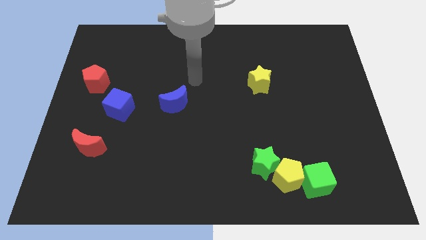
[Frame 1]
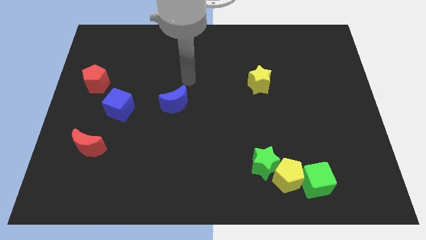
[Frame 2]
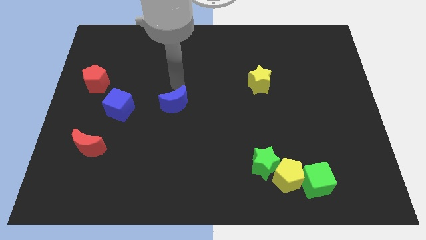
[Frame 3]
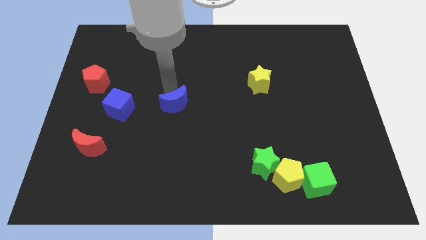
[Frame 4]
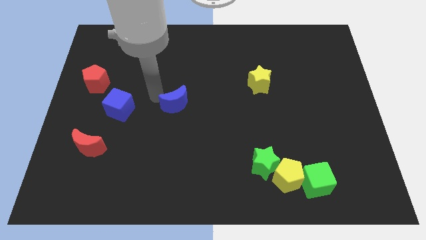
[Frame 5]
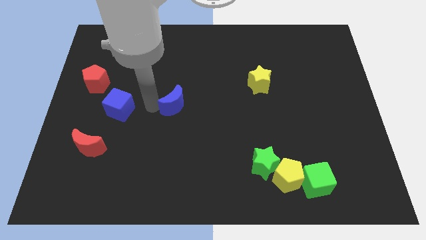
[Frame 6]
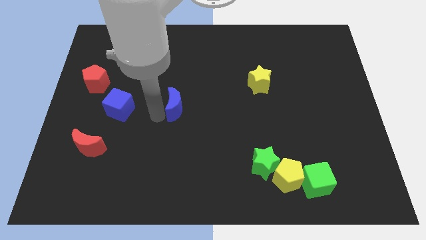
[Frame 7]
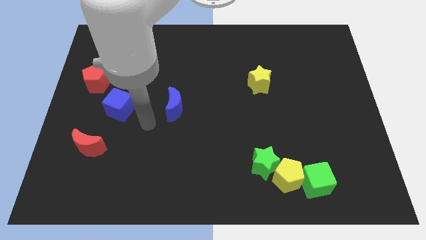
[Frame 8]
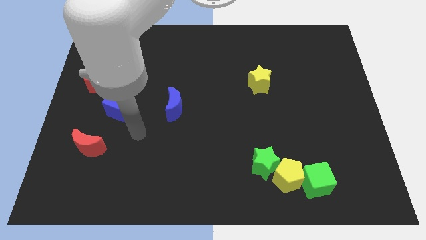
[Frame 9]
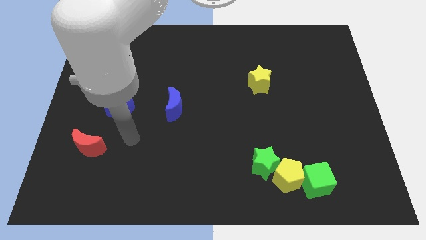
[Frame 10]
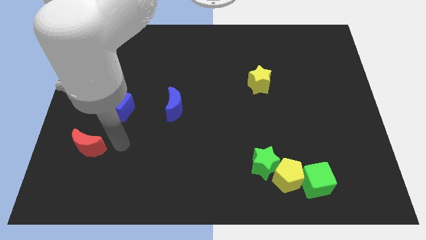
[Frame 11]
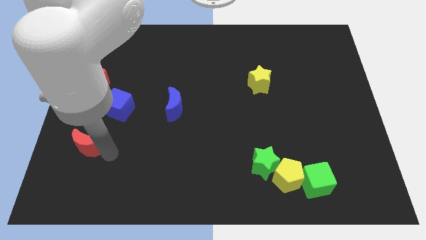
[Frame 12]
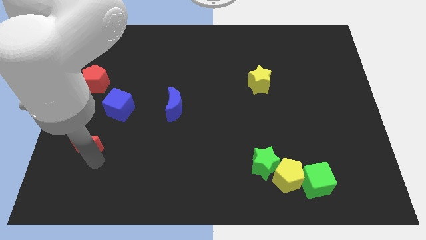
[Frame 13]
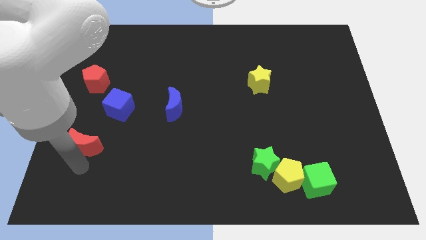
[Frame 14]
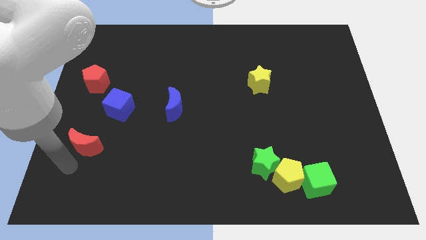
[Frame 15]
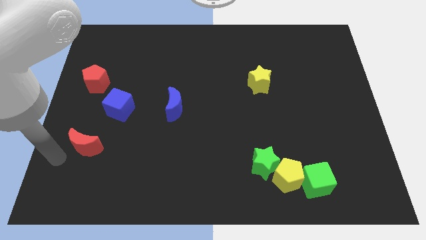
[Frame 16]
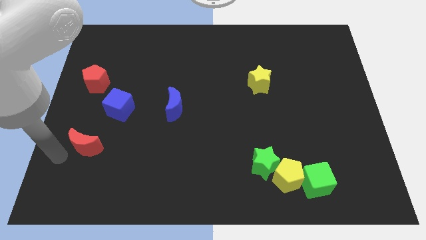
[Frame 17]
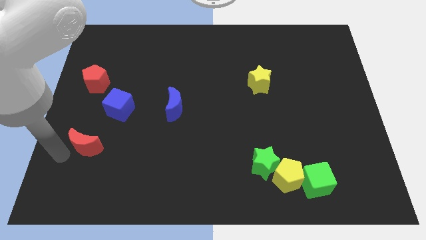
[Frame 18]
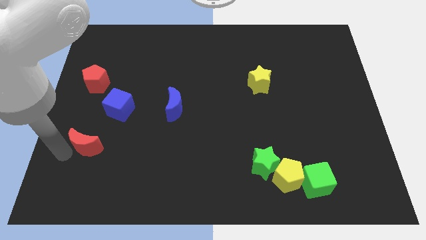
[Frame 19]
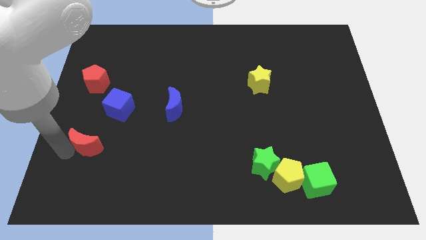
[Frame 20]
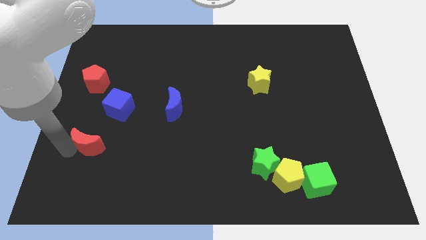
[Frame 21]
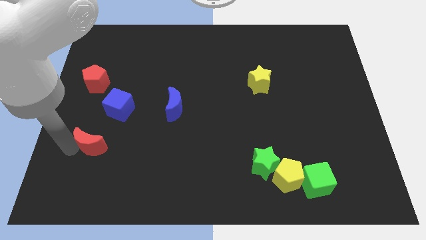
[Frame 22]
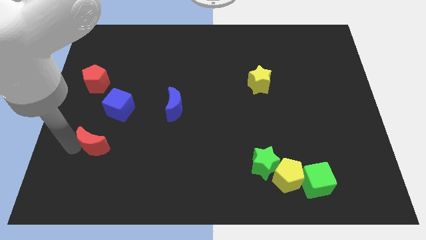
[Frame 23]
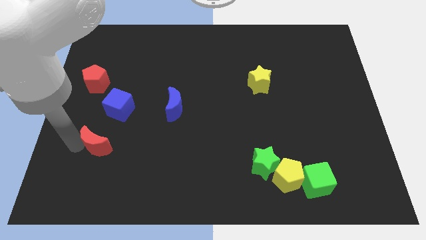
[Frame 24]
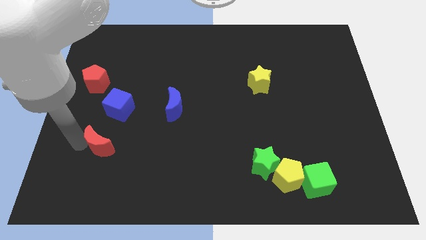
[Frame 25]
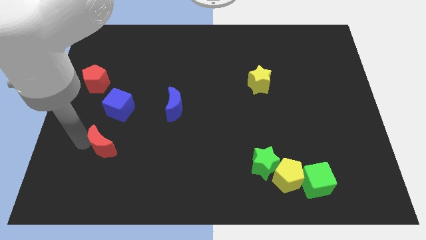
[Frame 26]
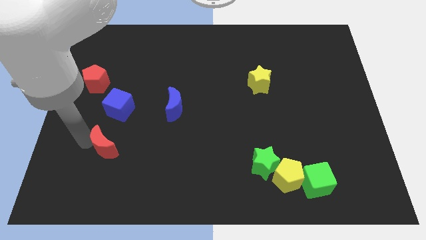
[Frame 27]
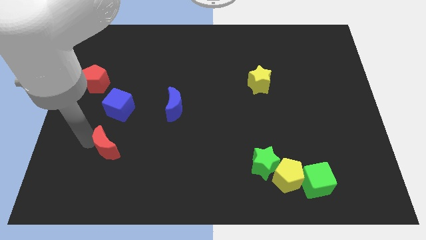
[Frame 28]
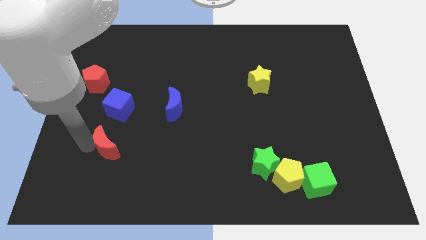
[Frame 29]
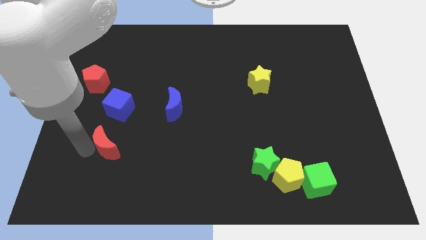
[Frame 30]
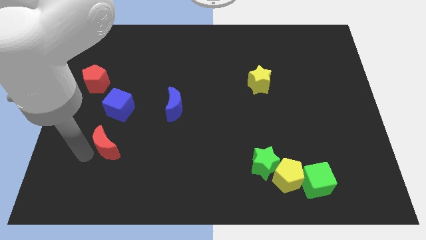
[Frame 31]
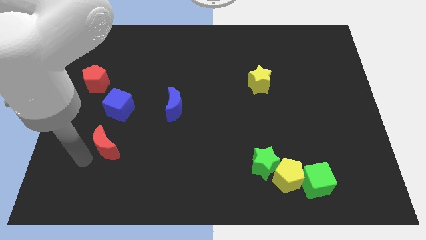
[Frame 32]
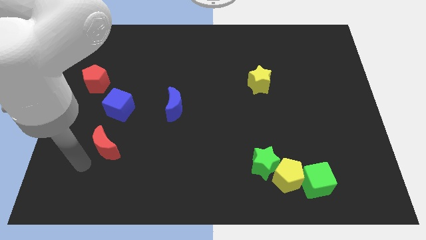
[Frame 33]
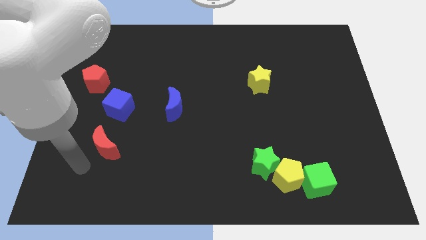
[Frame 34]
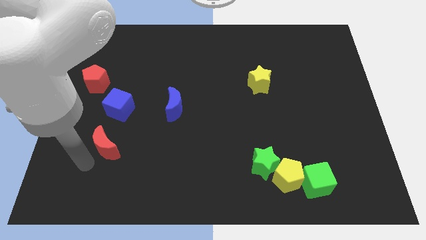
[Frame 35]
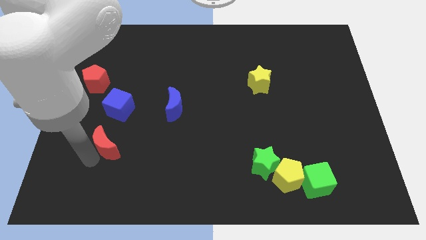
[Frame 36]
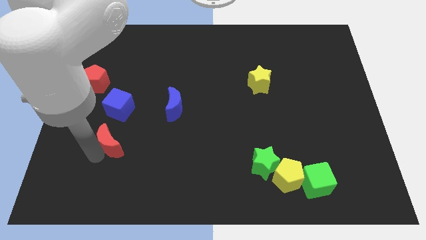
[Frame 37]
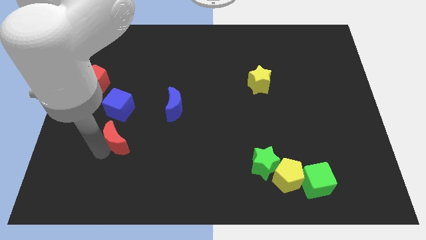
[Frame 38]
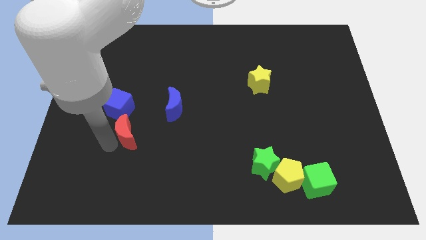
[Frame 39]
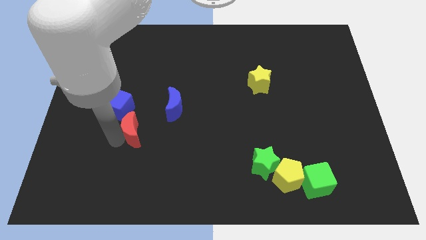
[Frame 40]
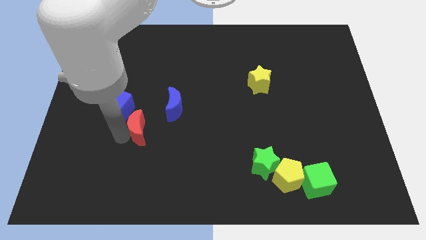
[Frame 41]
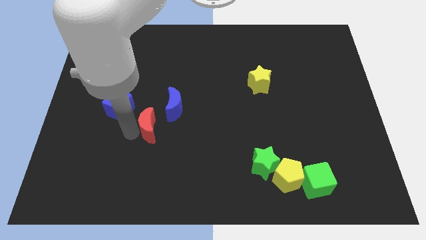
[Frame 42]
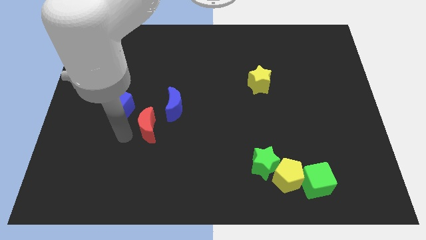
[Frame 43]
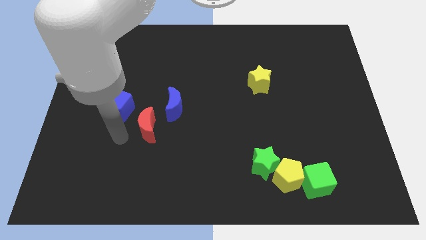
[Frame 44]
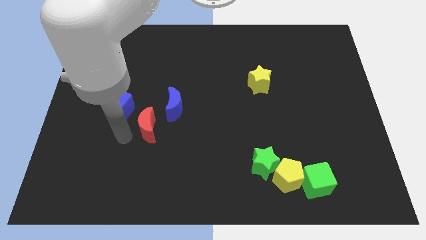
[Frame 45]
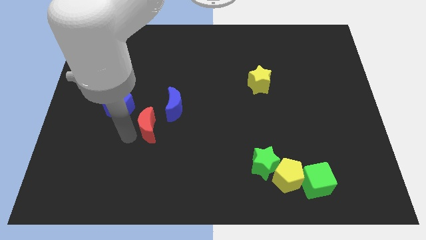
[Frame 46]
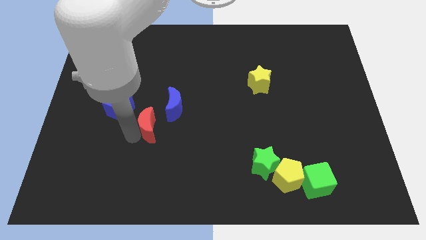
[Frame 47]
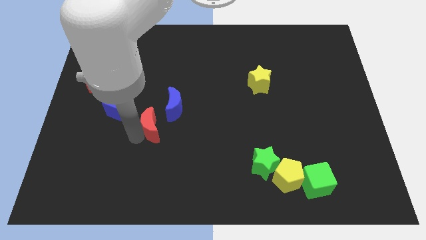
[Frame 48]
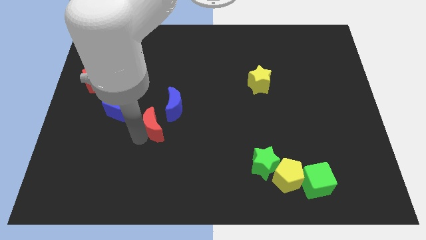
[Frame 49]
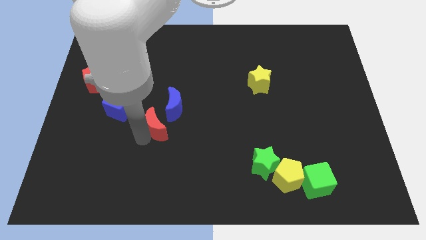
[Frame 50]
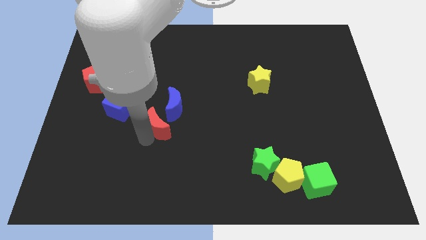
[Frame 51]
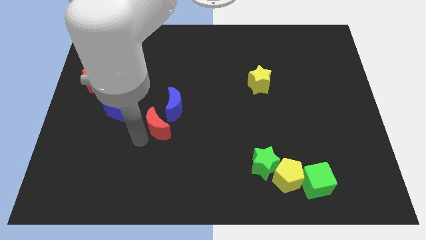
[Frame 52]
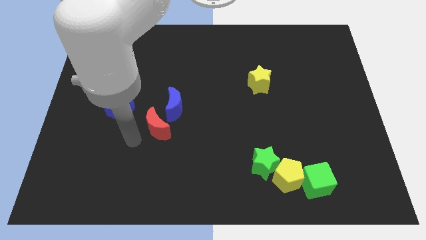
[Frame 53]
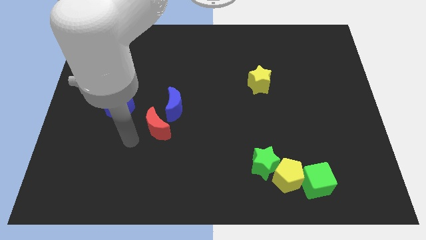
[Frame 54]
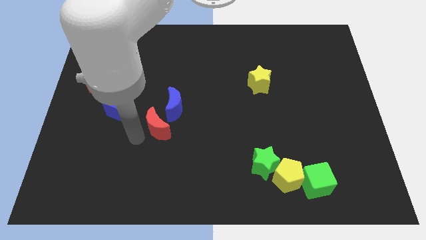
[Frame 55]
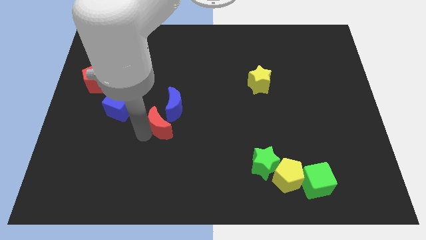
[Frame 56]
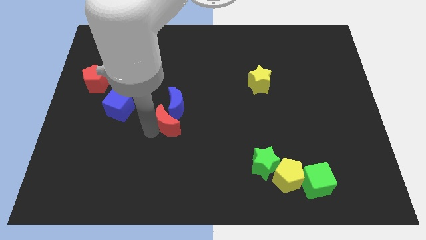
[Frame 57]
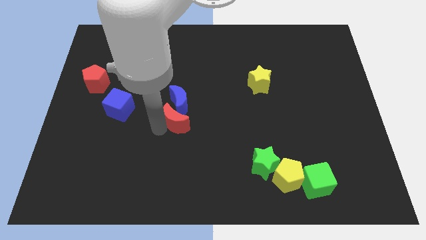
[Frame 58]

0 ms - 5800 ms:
move the red moon to the center

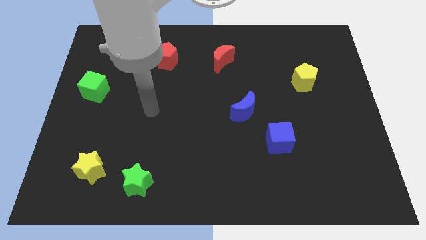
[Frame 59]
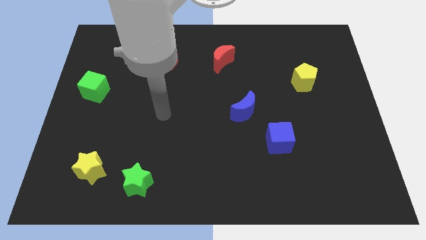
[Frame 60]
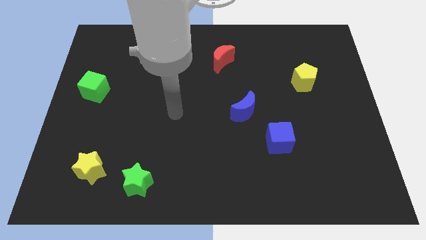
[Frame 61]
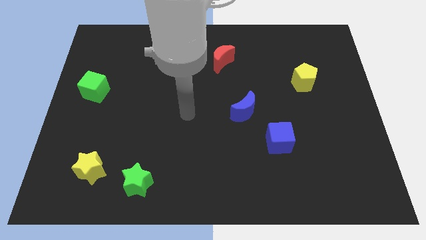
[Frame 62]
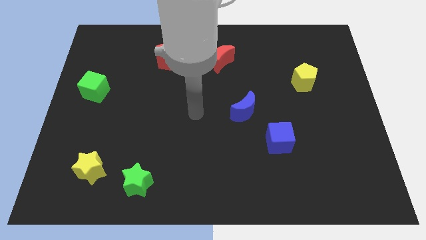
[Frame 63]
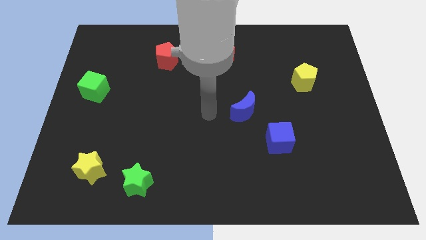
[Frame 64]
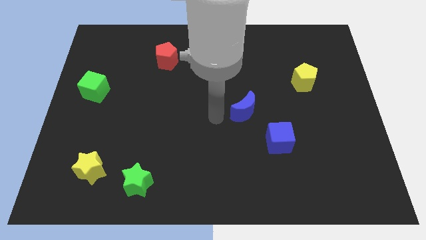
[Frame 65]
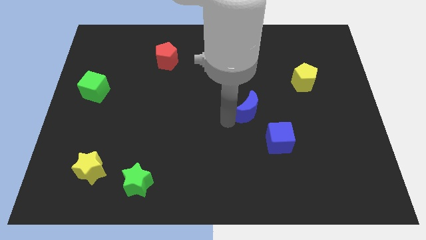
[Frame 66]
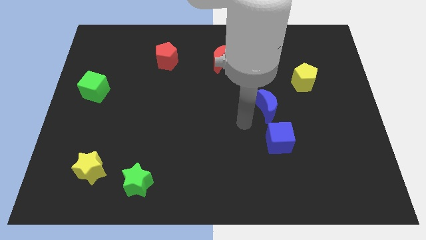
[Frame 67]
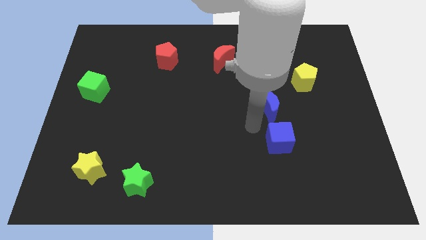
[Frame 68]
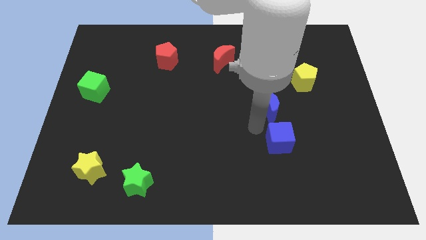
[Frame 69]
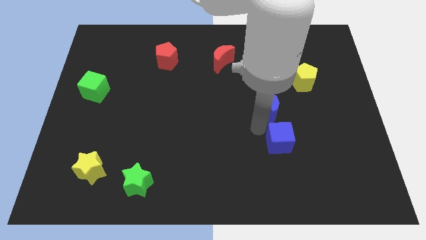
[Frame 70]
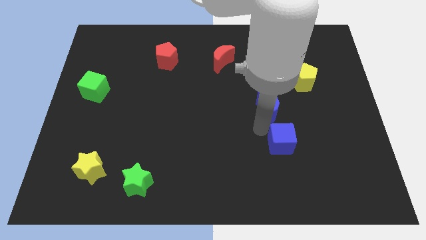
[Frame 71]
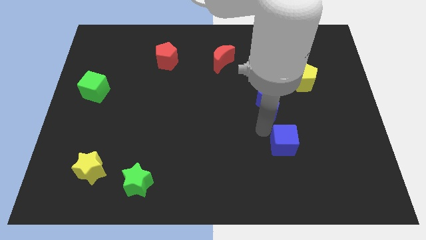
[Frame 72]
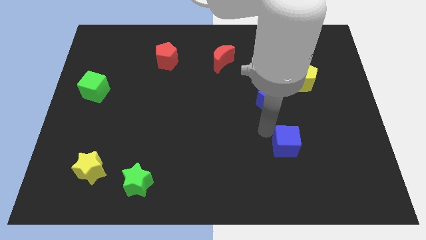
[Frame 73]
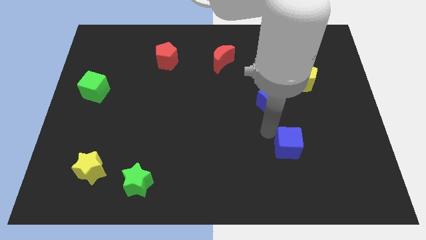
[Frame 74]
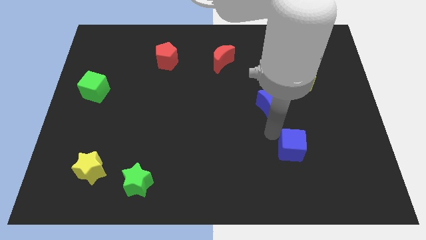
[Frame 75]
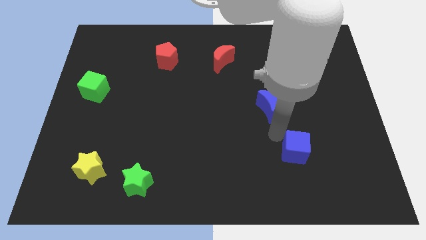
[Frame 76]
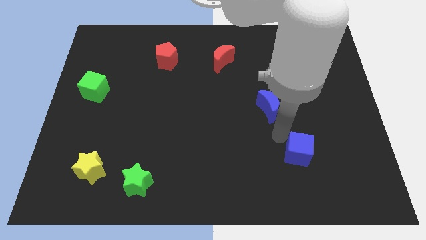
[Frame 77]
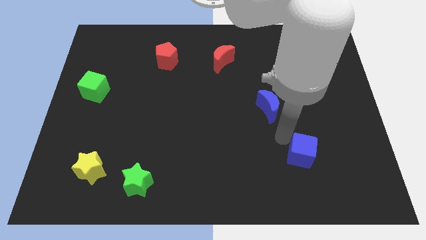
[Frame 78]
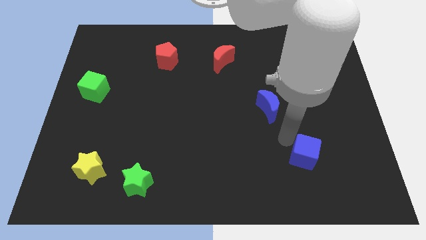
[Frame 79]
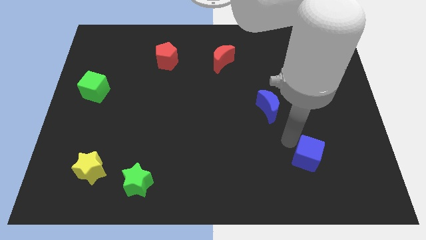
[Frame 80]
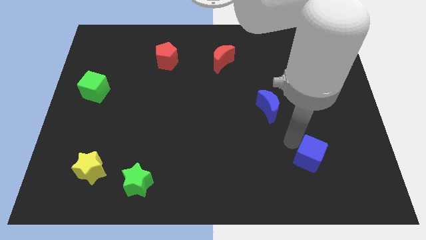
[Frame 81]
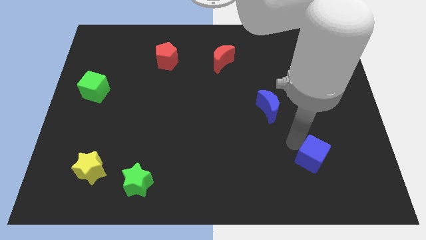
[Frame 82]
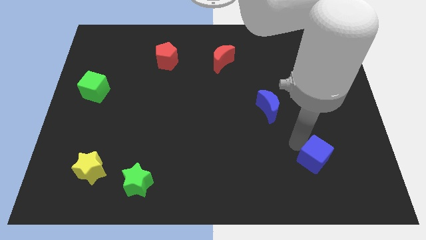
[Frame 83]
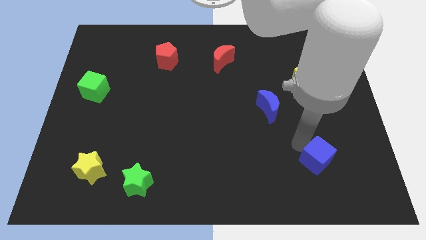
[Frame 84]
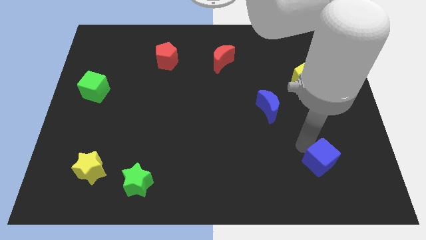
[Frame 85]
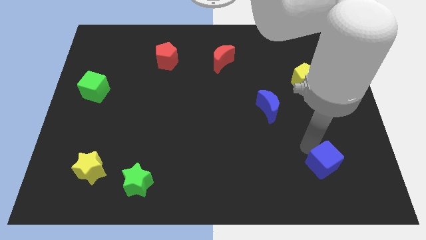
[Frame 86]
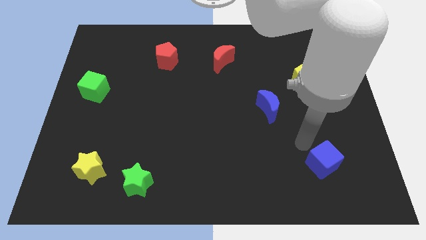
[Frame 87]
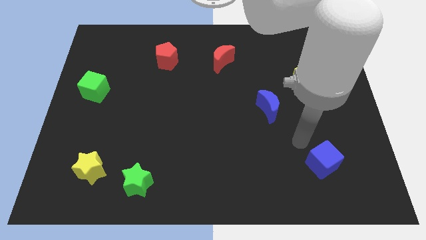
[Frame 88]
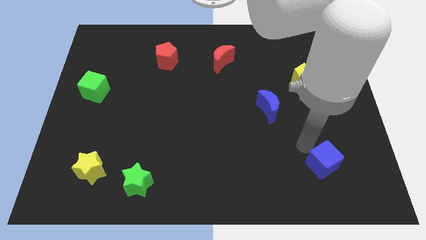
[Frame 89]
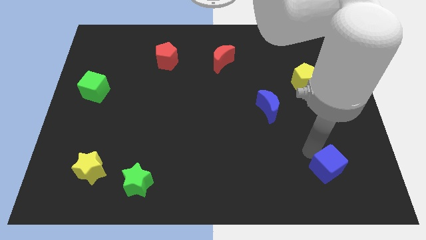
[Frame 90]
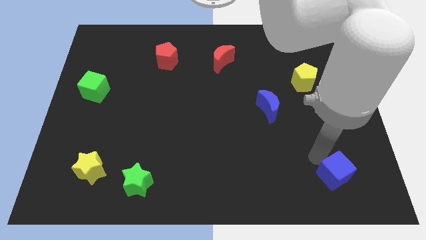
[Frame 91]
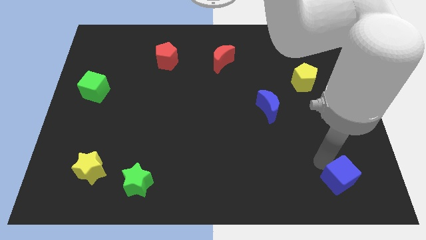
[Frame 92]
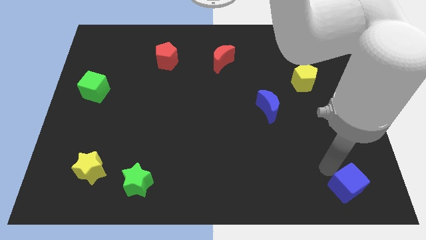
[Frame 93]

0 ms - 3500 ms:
move the blue cube to the bottom right of the board
